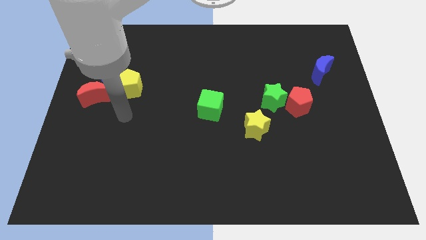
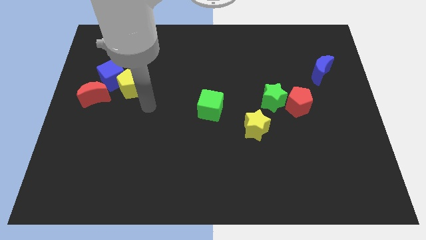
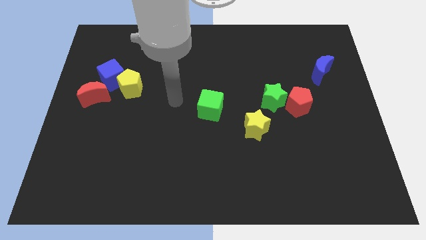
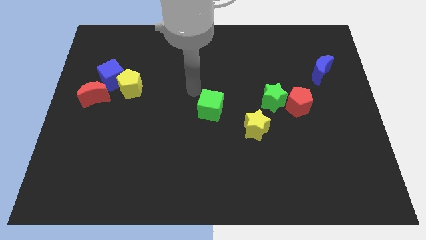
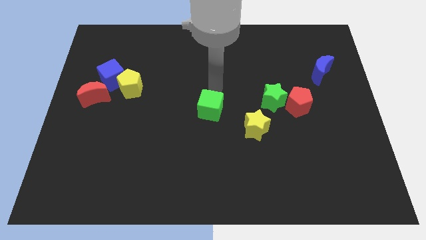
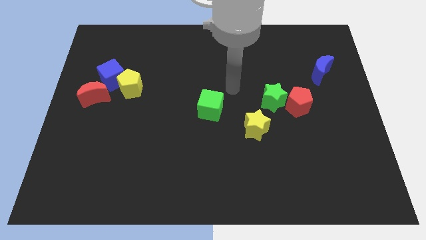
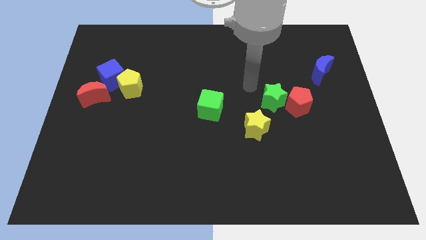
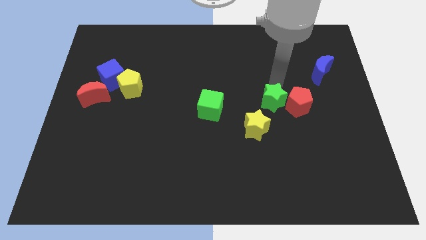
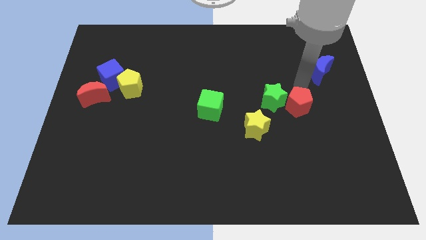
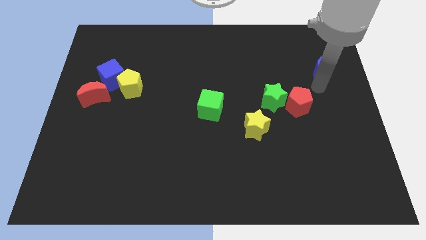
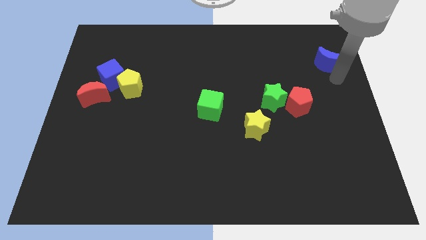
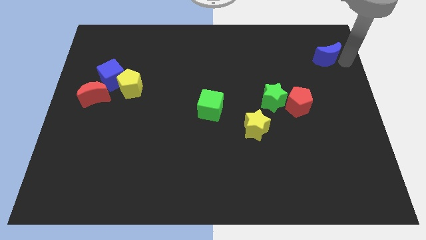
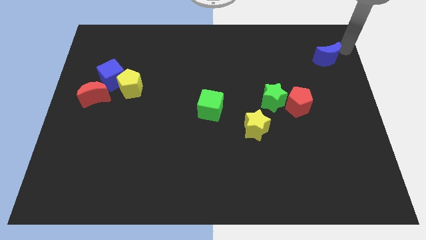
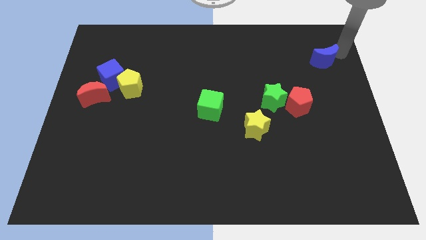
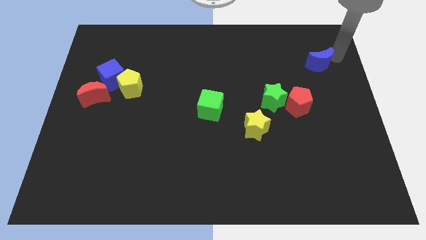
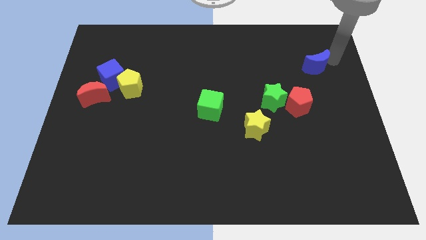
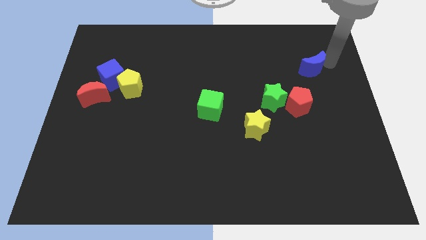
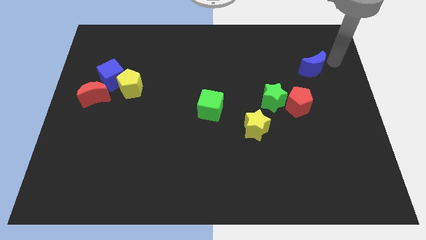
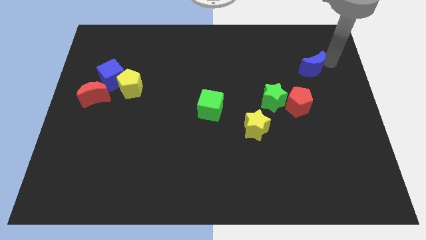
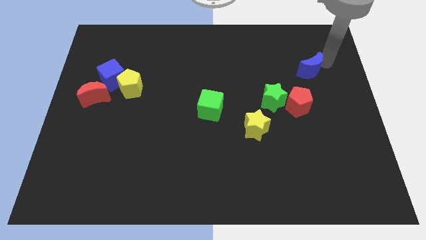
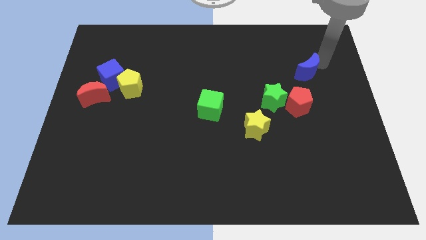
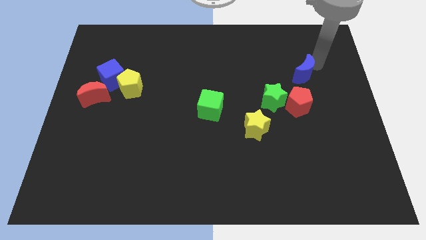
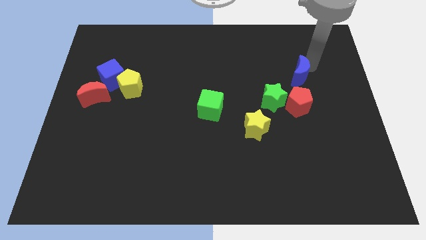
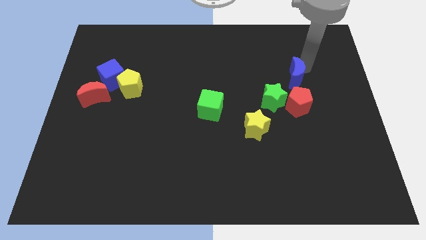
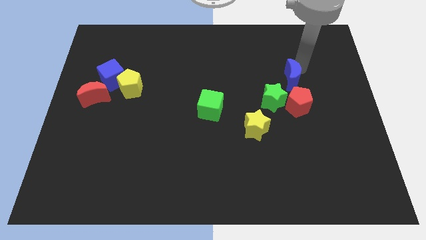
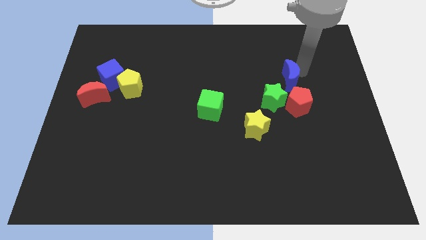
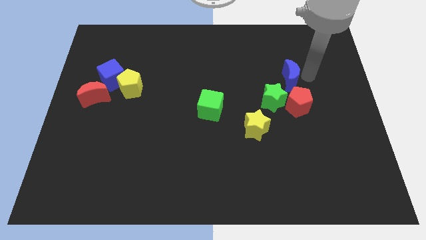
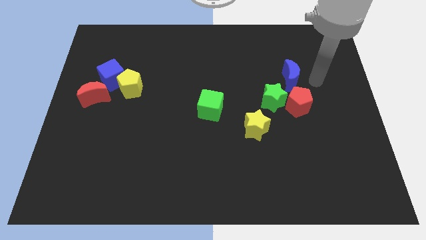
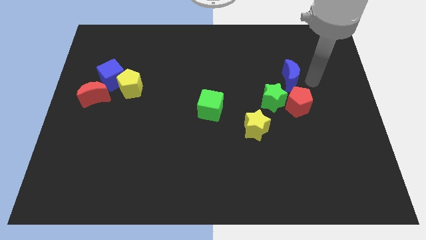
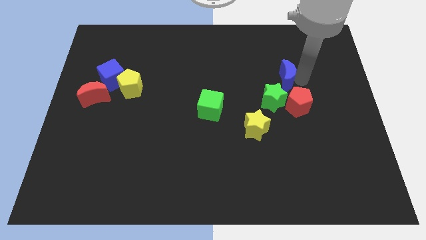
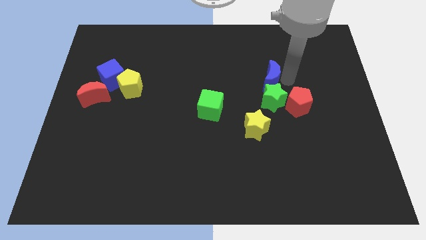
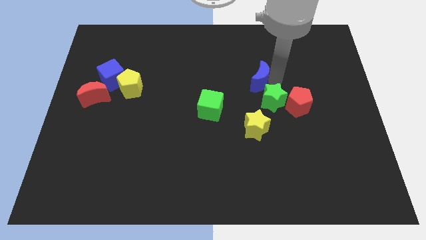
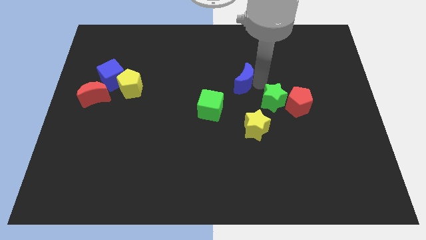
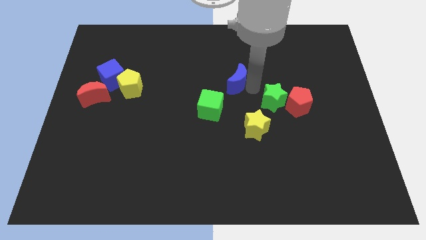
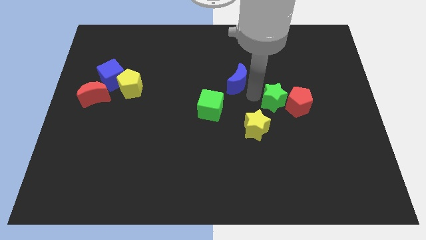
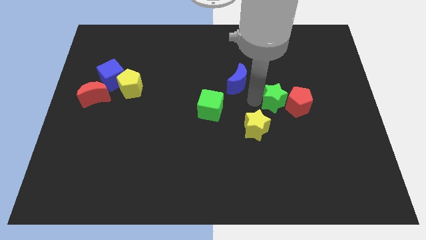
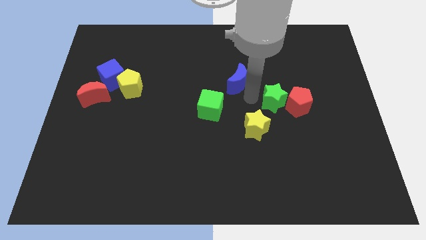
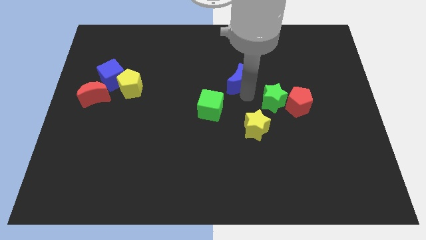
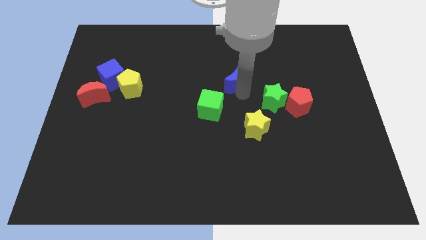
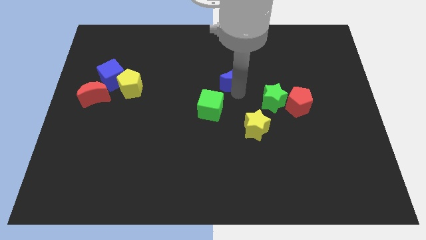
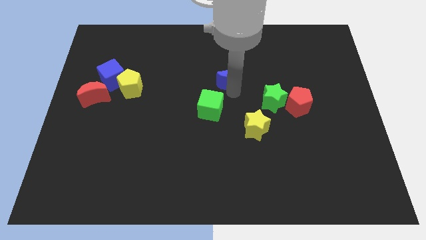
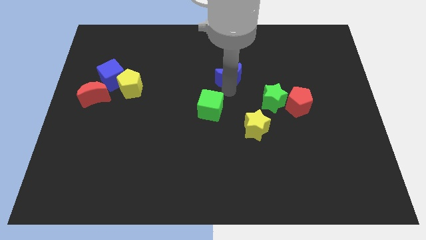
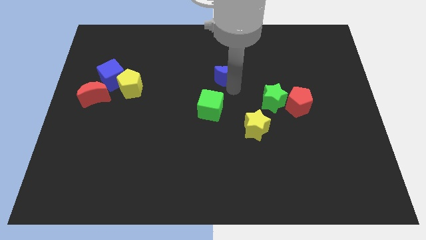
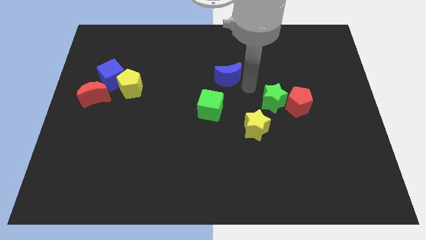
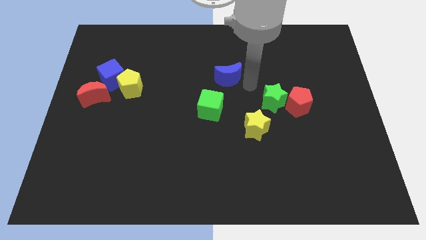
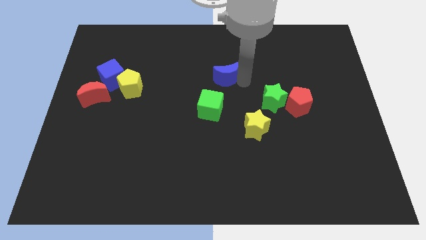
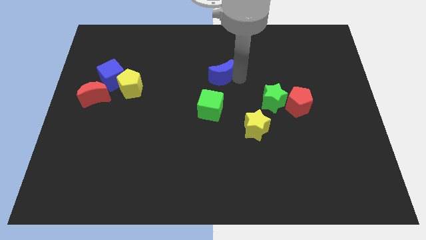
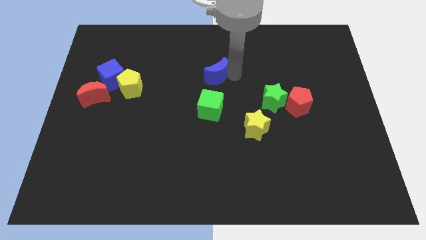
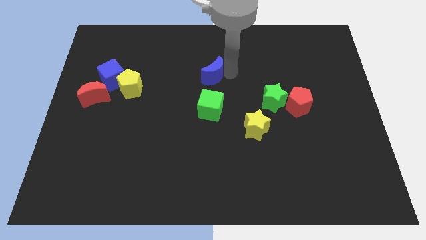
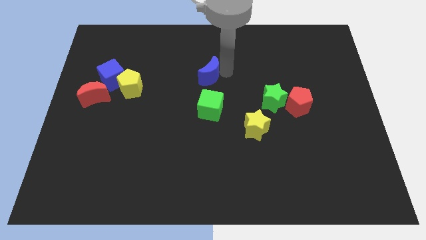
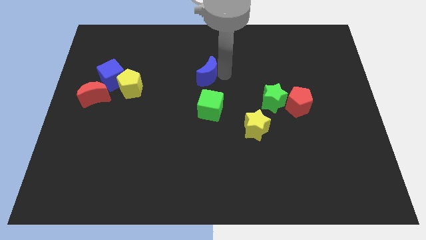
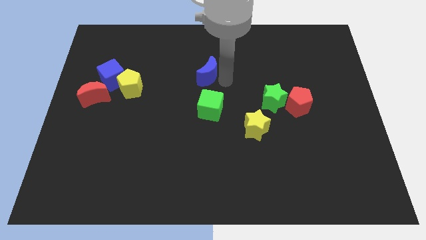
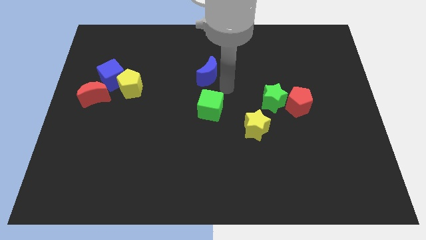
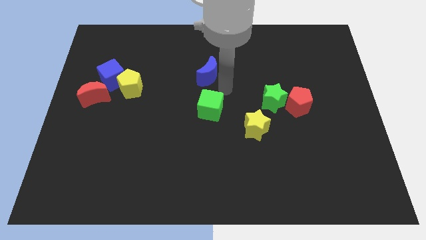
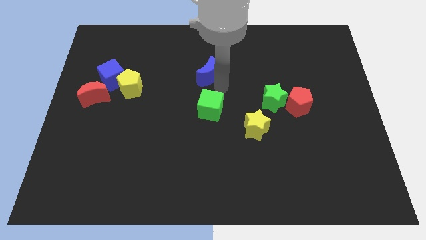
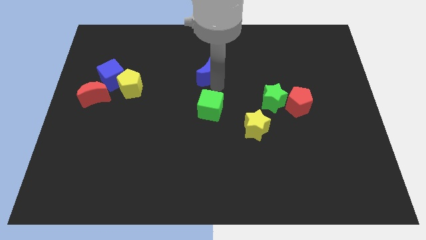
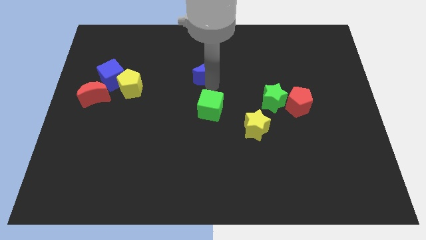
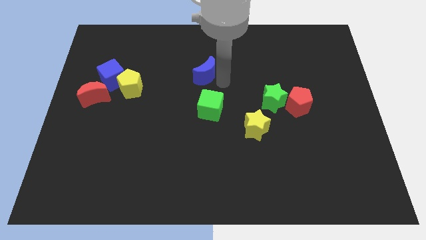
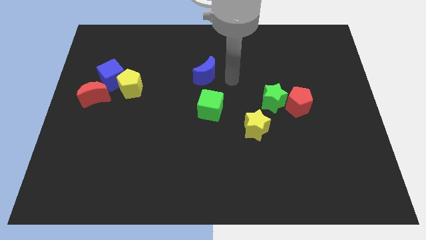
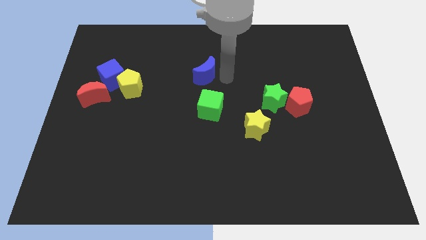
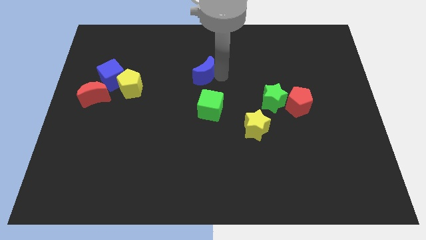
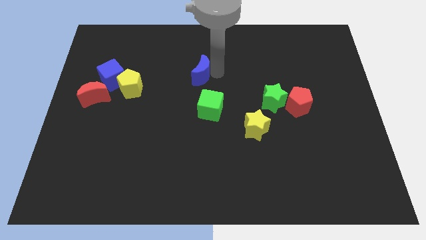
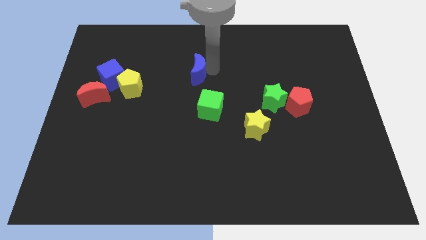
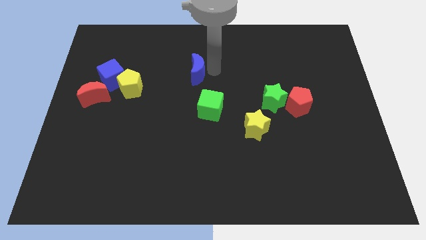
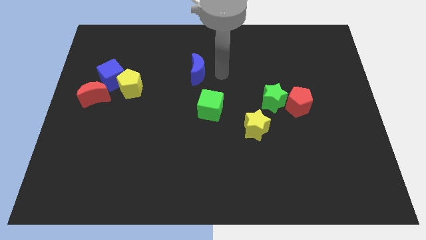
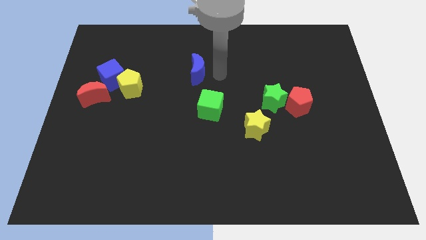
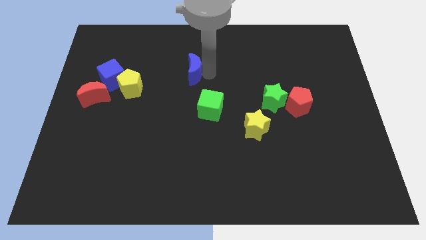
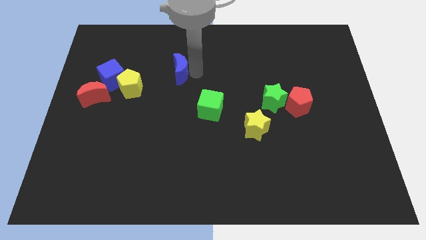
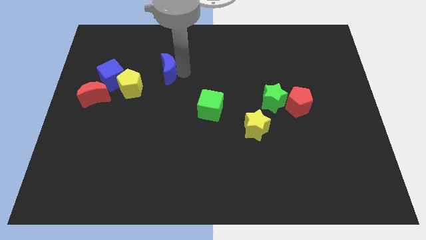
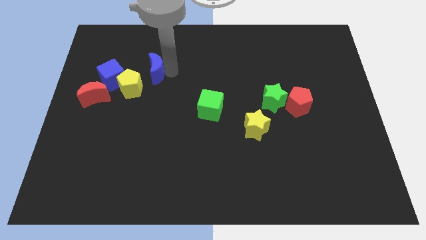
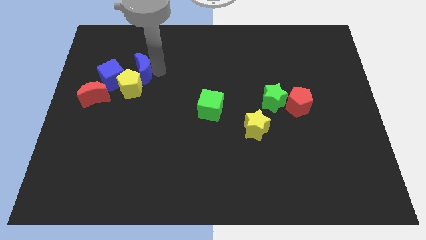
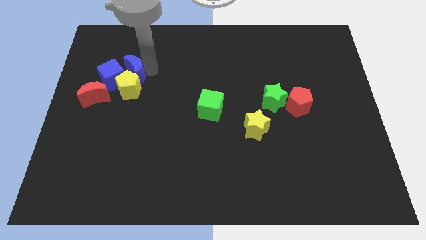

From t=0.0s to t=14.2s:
move the blue moon close to the blue cube
